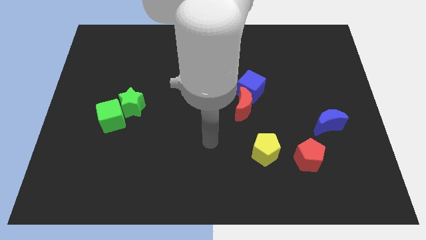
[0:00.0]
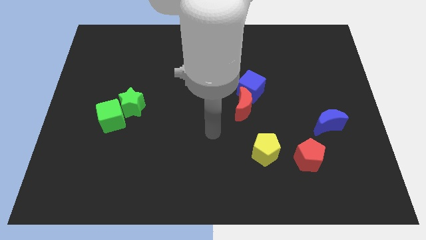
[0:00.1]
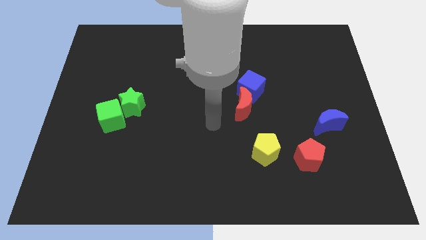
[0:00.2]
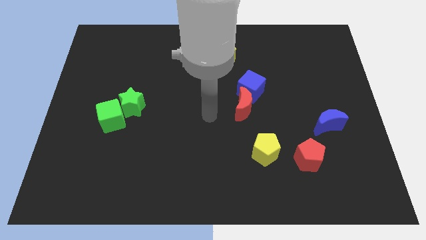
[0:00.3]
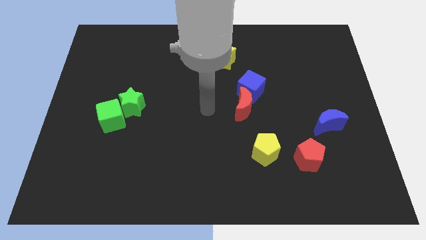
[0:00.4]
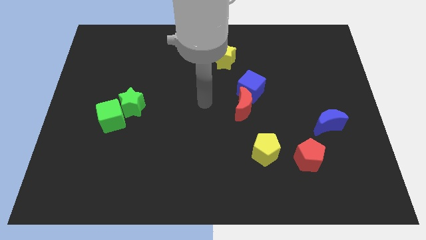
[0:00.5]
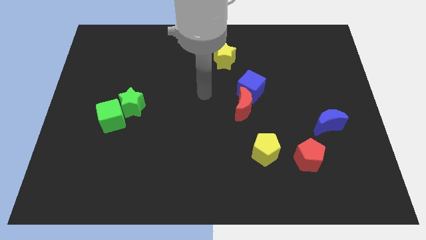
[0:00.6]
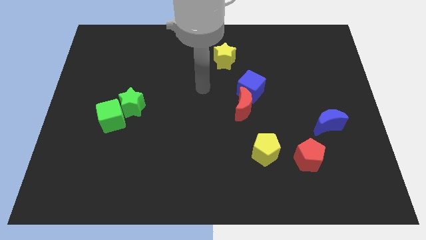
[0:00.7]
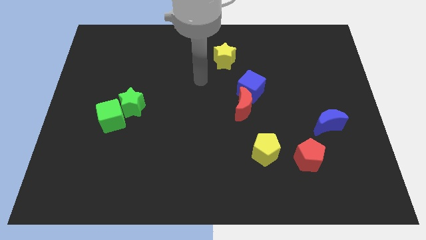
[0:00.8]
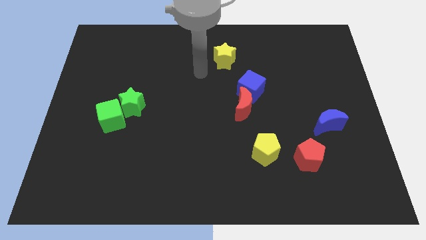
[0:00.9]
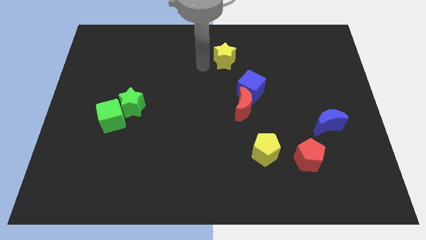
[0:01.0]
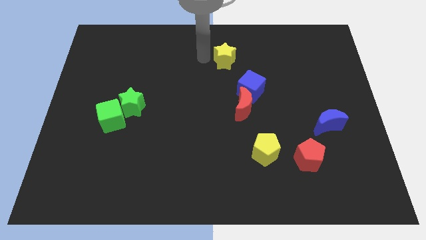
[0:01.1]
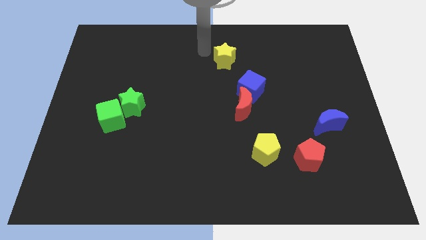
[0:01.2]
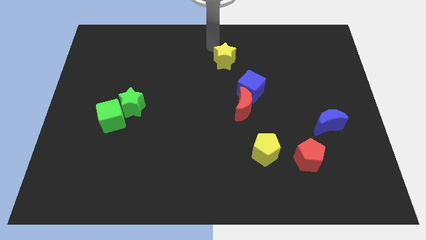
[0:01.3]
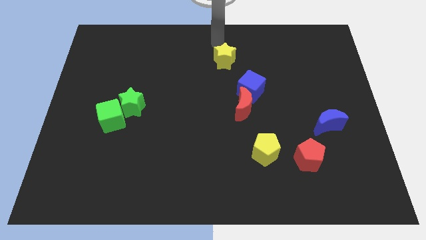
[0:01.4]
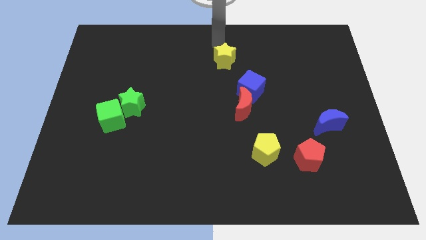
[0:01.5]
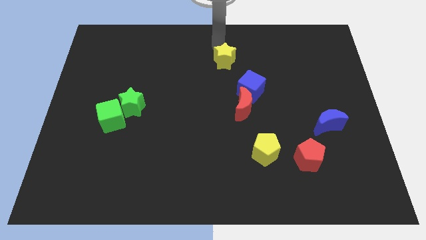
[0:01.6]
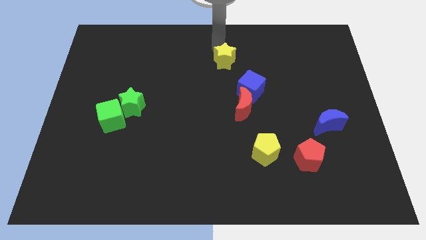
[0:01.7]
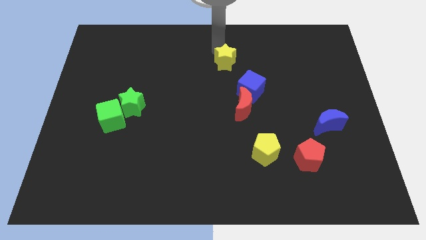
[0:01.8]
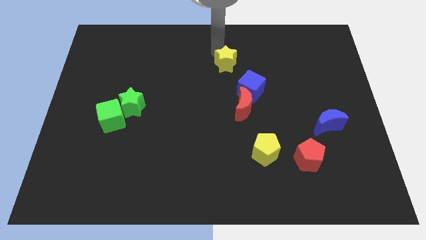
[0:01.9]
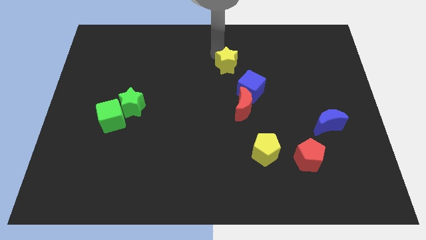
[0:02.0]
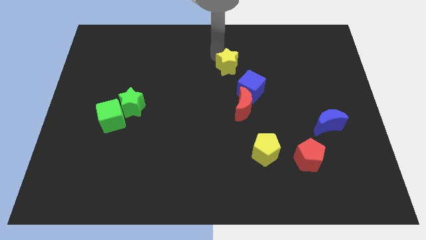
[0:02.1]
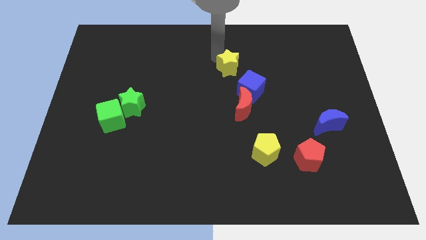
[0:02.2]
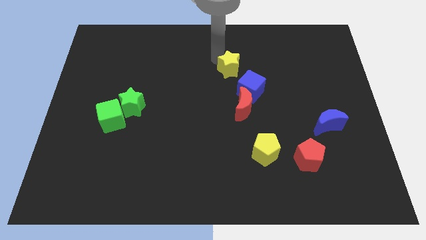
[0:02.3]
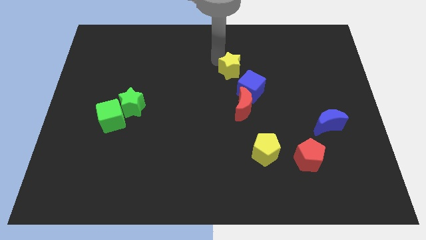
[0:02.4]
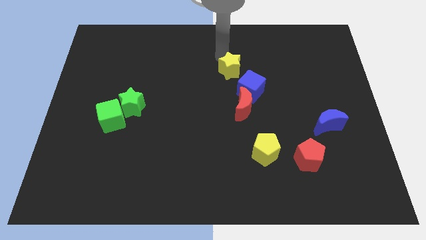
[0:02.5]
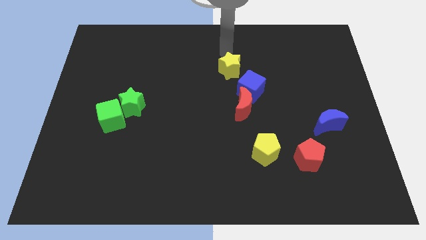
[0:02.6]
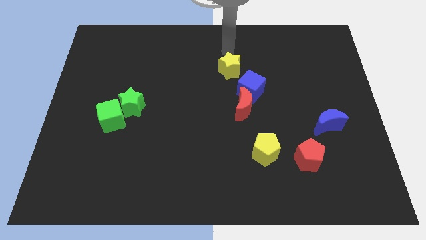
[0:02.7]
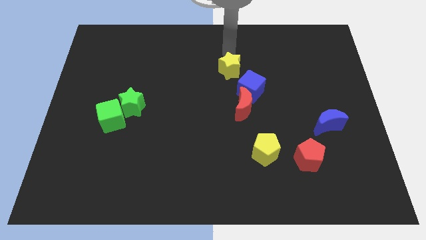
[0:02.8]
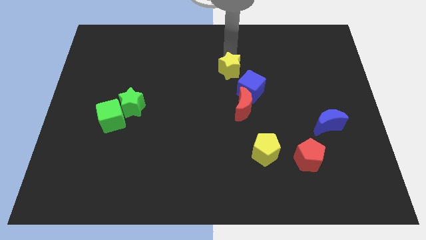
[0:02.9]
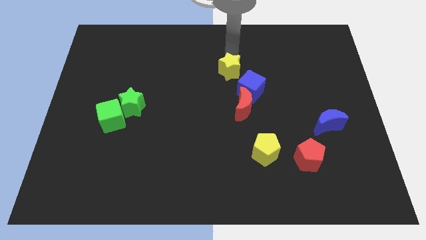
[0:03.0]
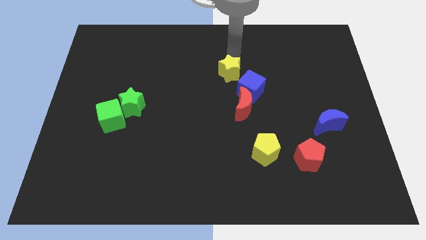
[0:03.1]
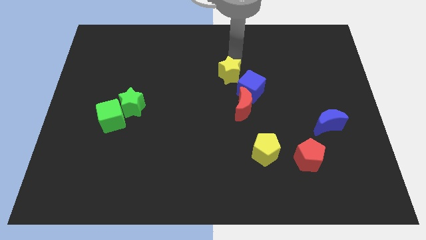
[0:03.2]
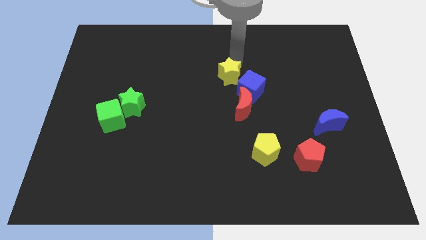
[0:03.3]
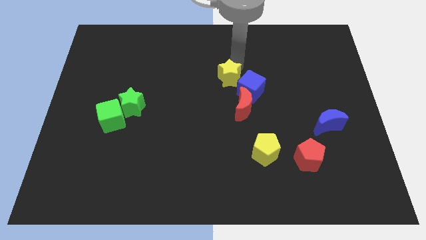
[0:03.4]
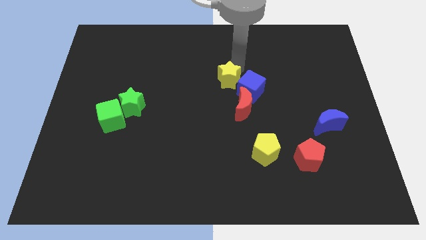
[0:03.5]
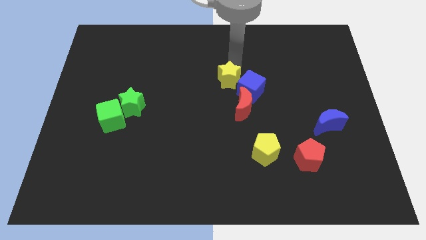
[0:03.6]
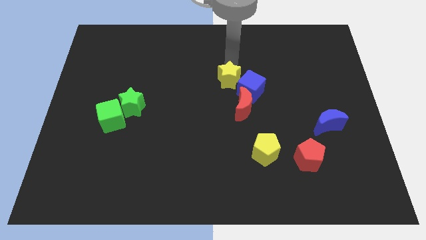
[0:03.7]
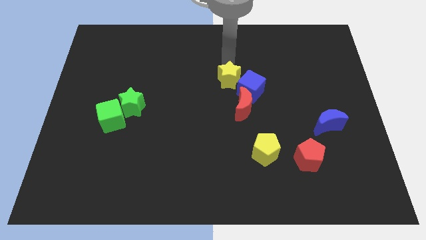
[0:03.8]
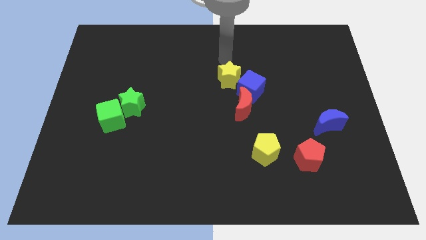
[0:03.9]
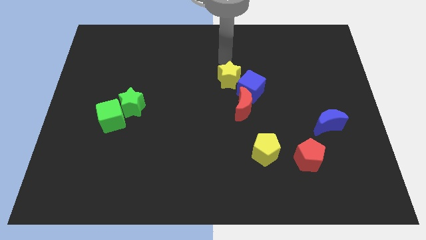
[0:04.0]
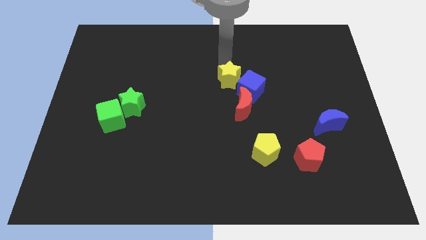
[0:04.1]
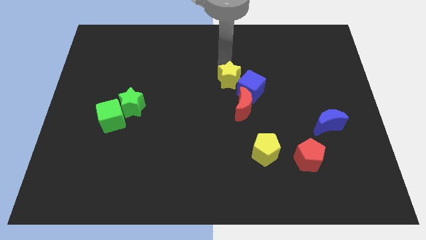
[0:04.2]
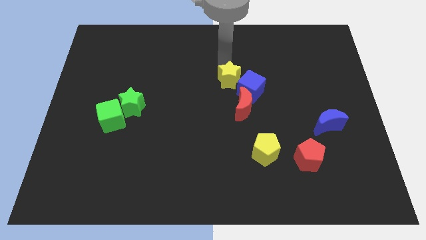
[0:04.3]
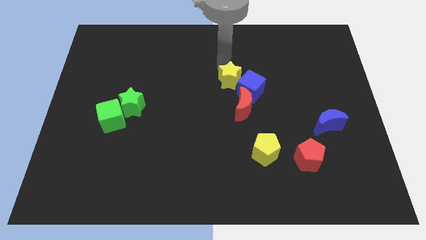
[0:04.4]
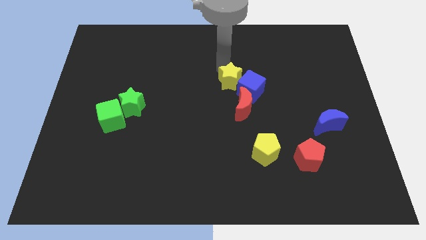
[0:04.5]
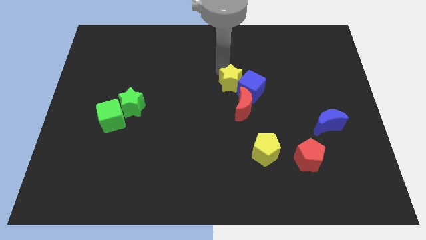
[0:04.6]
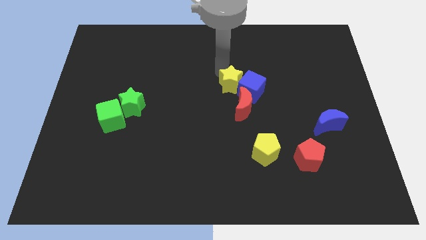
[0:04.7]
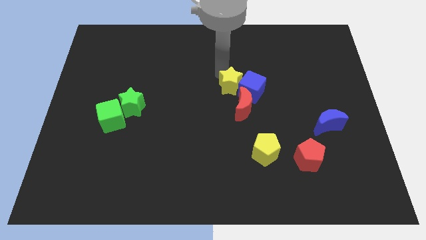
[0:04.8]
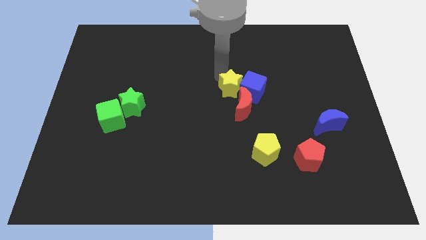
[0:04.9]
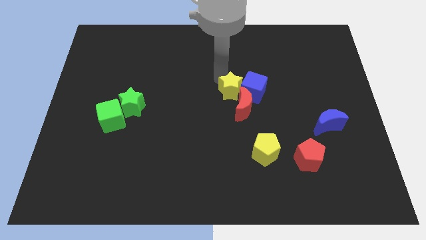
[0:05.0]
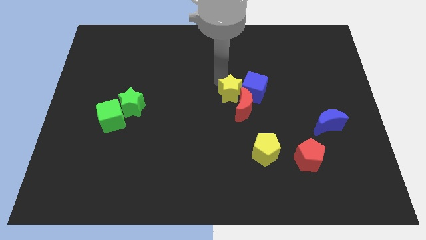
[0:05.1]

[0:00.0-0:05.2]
put the yellow star close to the red moon

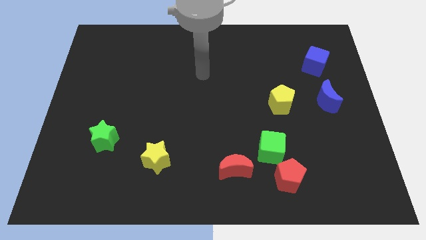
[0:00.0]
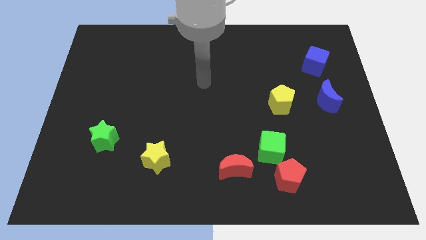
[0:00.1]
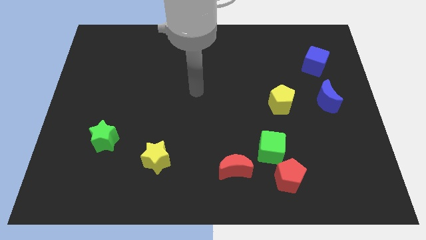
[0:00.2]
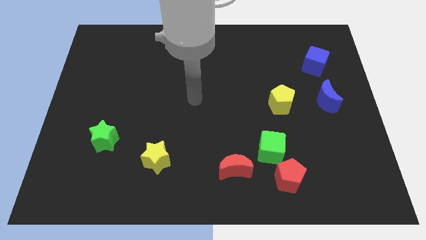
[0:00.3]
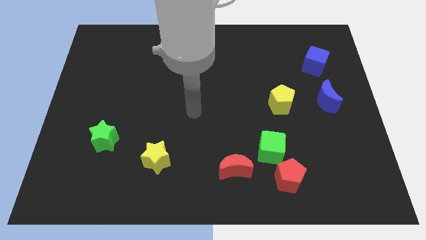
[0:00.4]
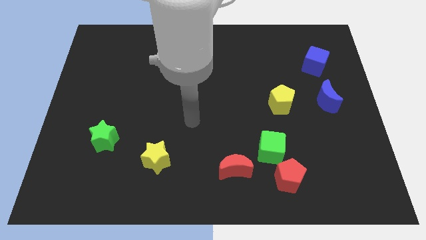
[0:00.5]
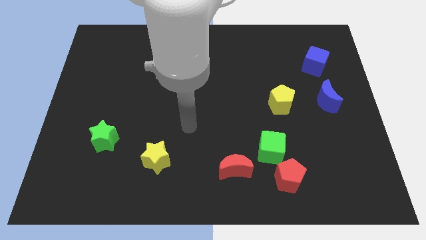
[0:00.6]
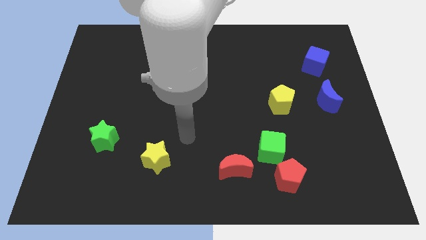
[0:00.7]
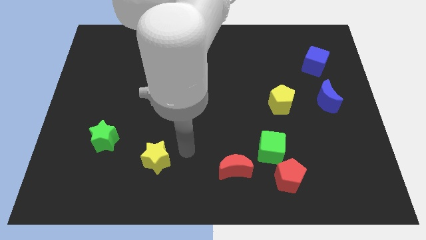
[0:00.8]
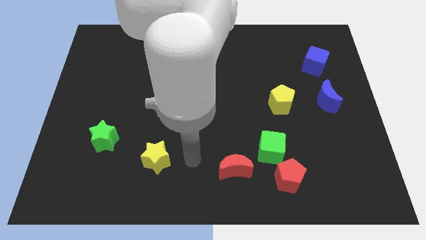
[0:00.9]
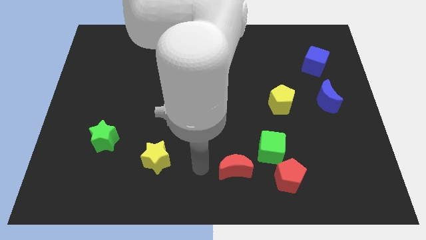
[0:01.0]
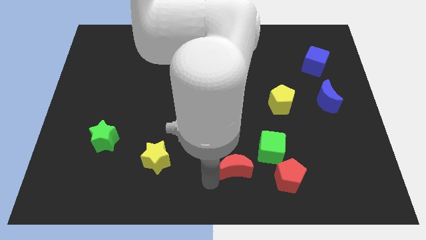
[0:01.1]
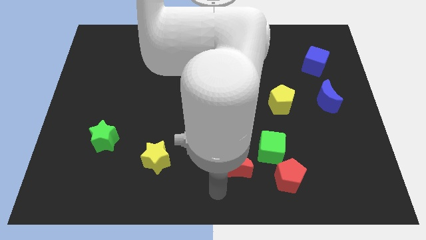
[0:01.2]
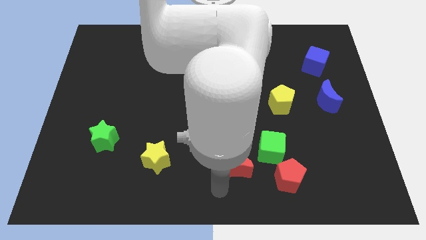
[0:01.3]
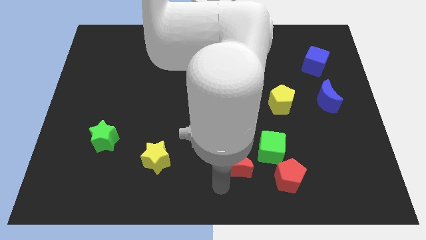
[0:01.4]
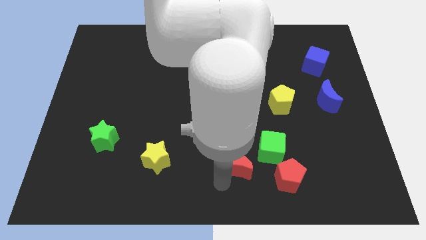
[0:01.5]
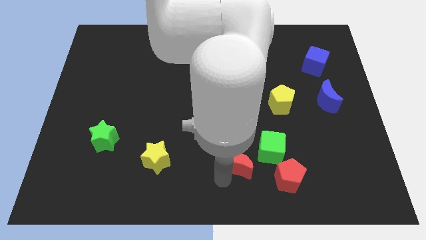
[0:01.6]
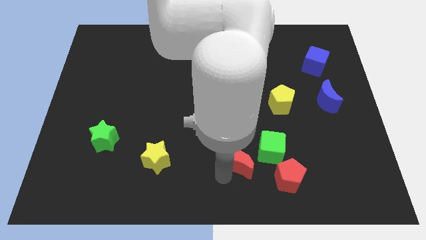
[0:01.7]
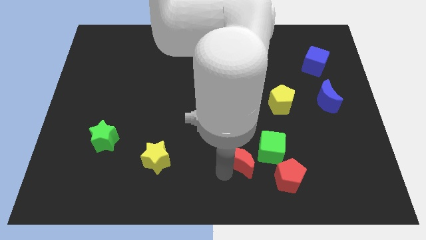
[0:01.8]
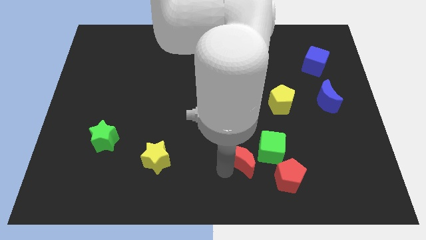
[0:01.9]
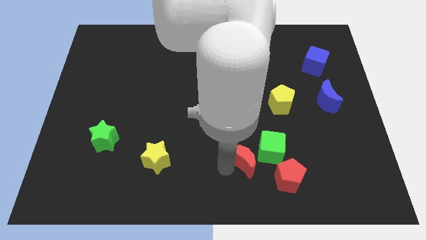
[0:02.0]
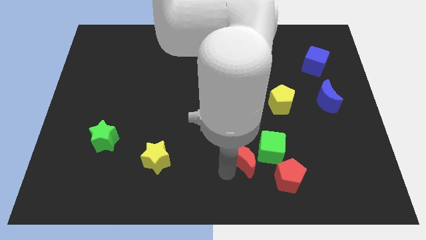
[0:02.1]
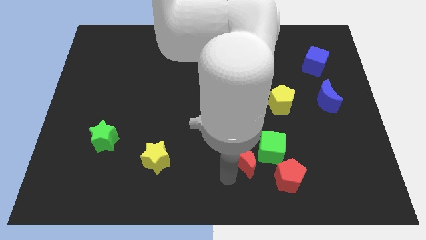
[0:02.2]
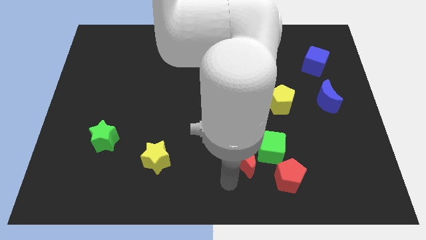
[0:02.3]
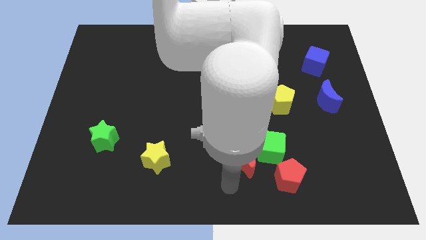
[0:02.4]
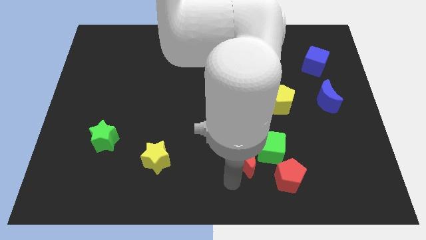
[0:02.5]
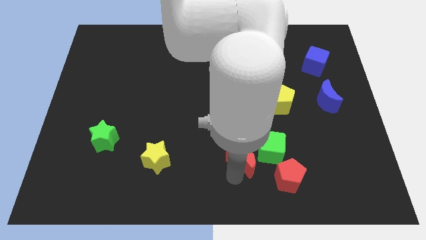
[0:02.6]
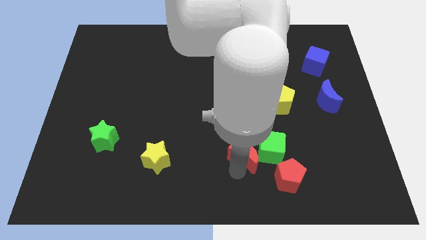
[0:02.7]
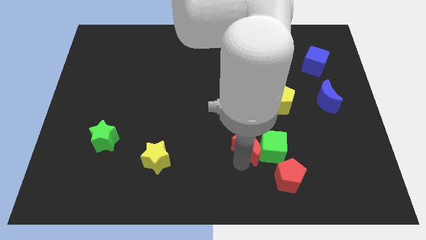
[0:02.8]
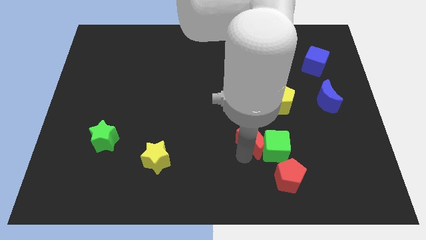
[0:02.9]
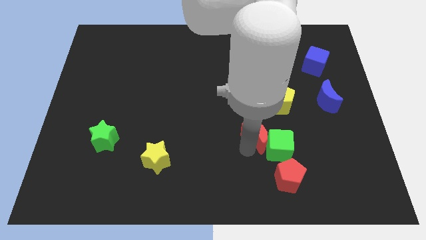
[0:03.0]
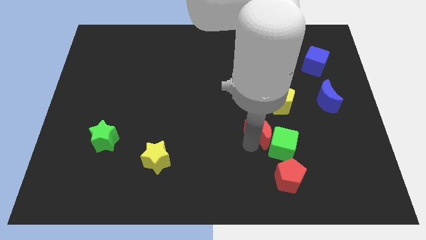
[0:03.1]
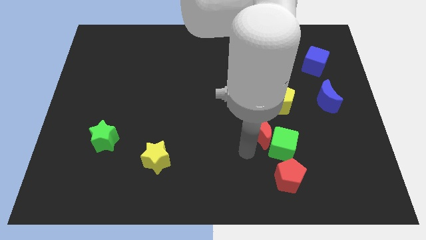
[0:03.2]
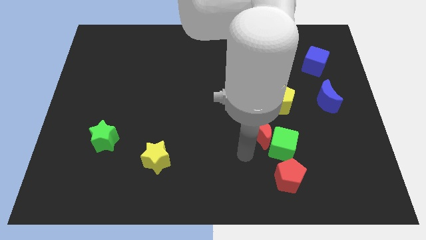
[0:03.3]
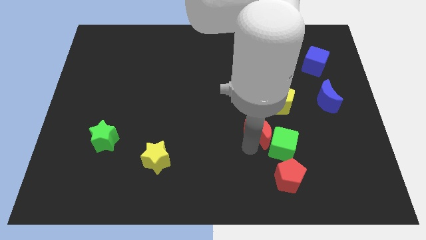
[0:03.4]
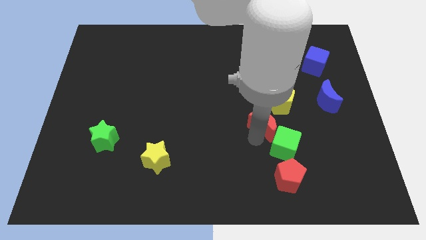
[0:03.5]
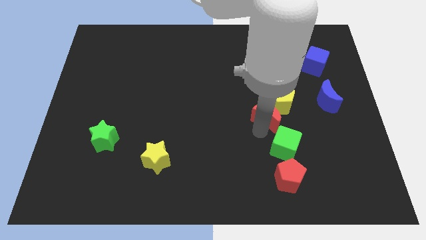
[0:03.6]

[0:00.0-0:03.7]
put the red moon towards the yellow pentagon
